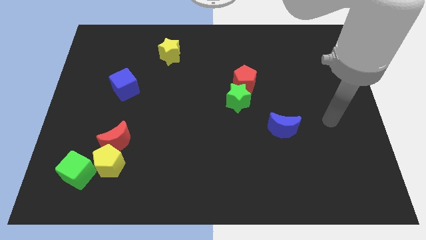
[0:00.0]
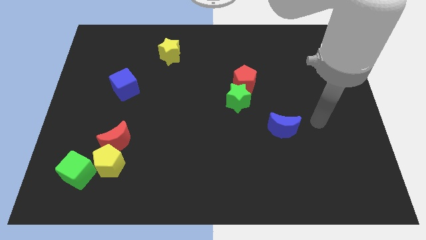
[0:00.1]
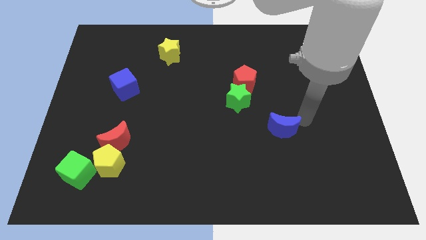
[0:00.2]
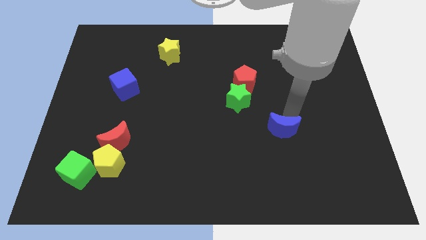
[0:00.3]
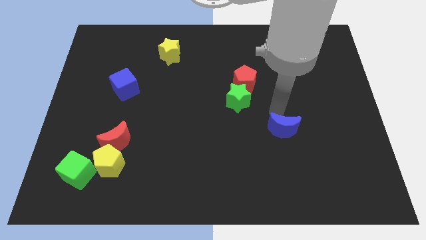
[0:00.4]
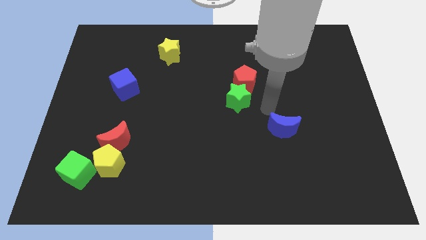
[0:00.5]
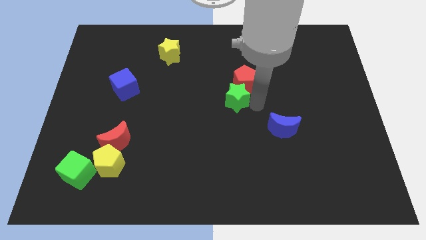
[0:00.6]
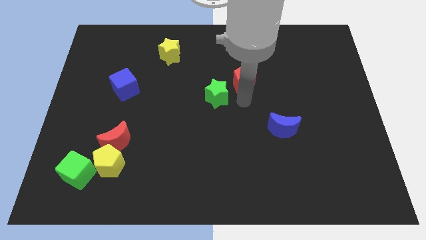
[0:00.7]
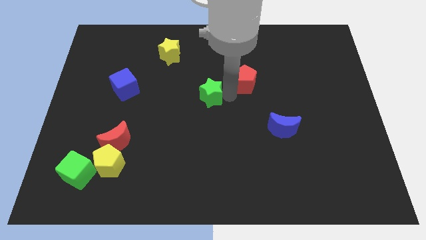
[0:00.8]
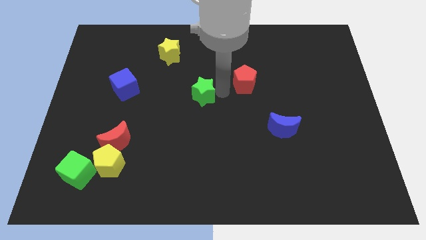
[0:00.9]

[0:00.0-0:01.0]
separate the red pentagon from the green star

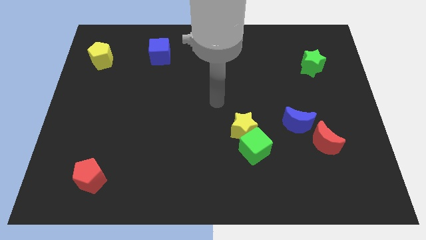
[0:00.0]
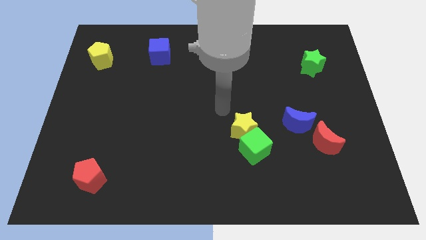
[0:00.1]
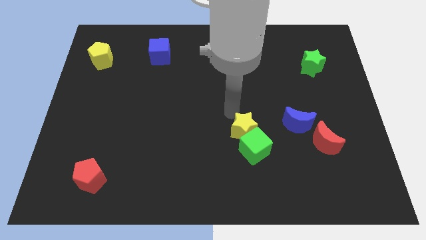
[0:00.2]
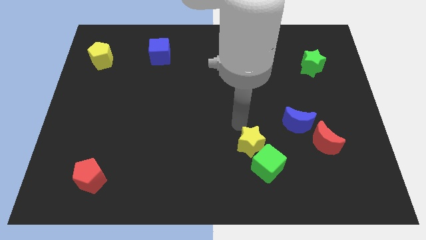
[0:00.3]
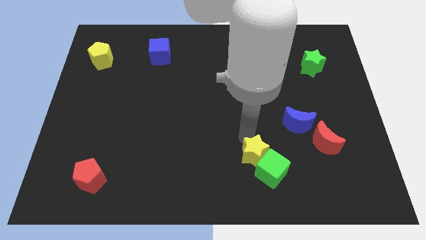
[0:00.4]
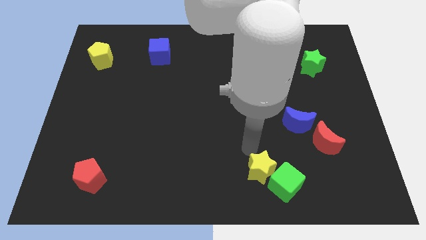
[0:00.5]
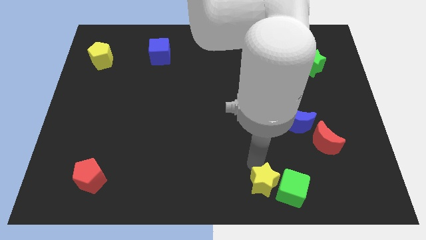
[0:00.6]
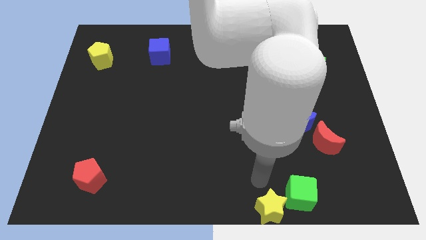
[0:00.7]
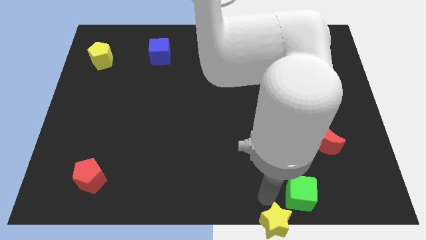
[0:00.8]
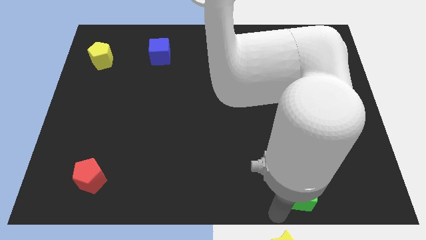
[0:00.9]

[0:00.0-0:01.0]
pull the green cube apart from the yellow star

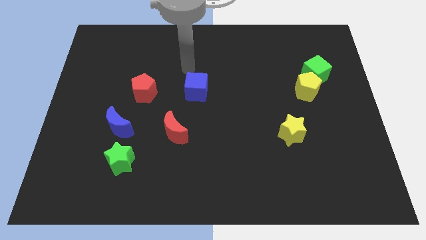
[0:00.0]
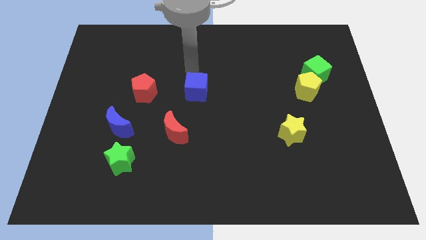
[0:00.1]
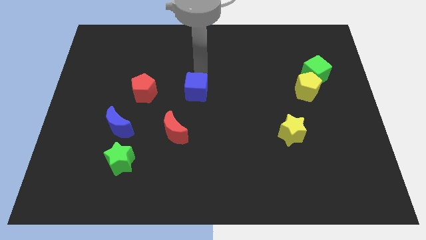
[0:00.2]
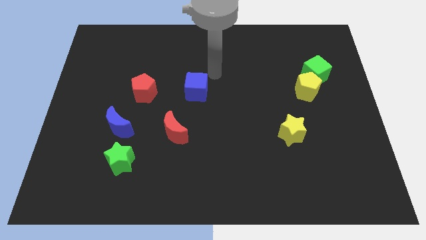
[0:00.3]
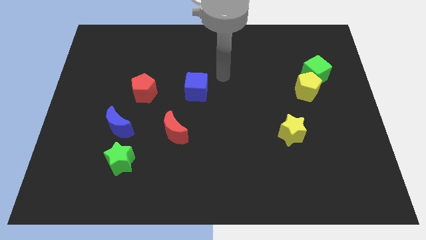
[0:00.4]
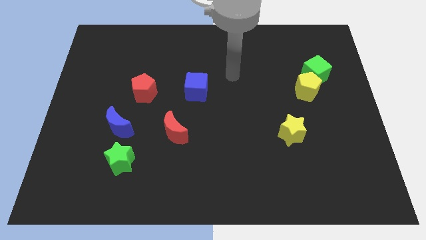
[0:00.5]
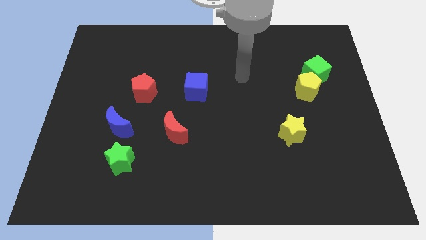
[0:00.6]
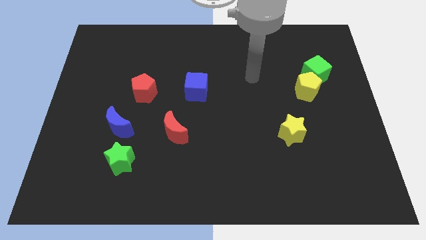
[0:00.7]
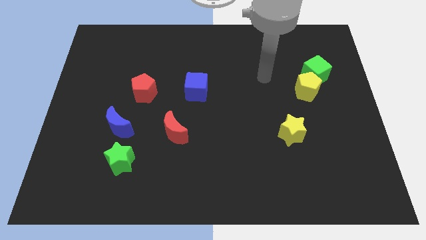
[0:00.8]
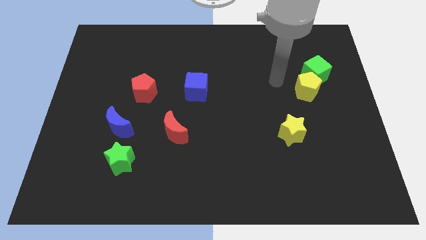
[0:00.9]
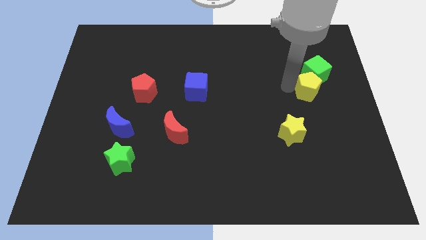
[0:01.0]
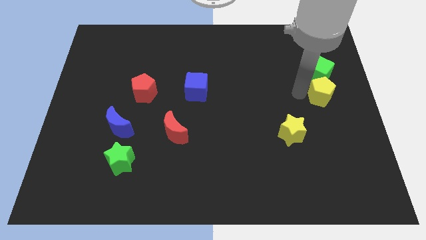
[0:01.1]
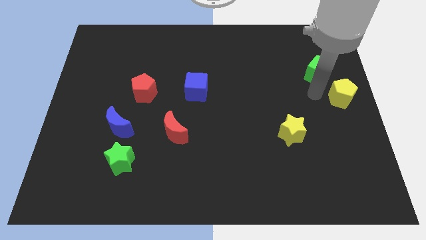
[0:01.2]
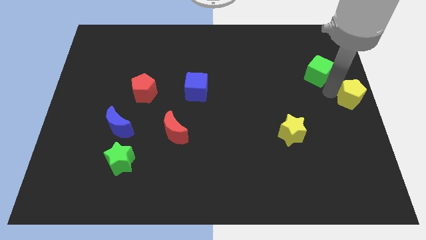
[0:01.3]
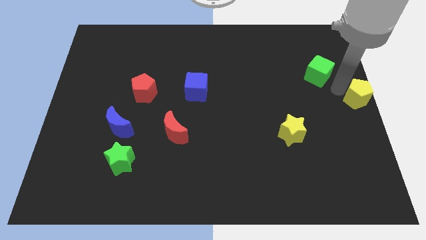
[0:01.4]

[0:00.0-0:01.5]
separate the green cube from the yellow pentagon

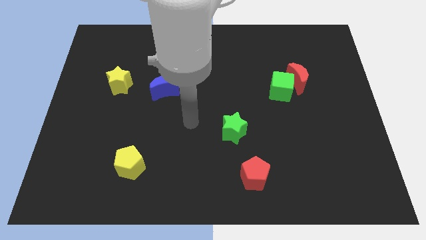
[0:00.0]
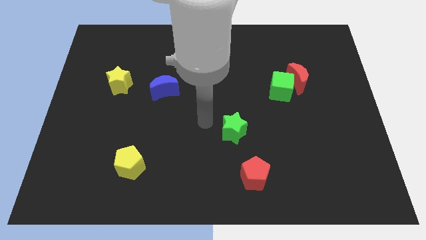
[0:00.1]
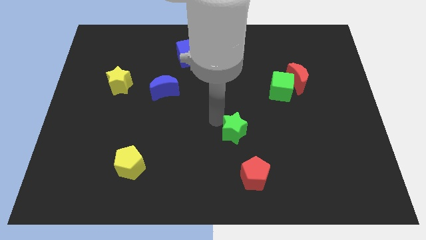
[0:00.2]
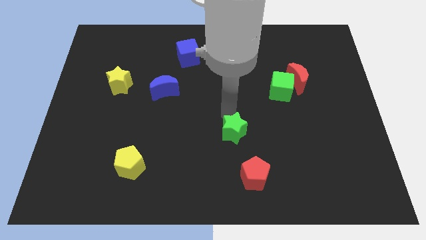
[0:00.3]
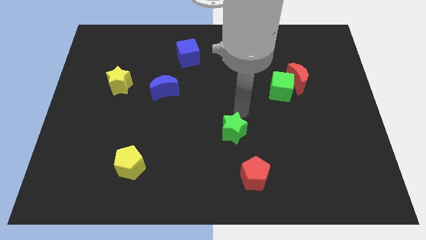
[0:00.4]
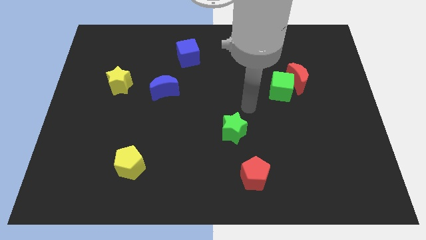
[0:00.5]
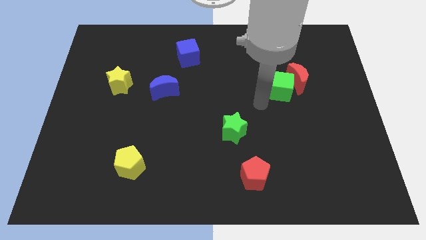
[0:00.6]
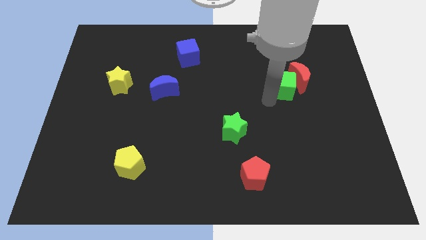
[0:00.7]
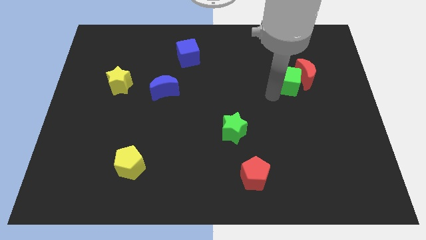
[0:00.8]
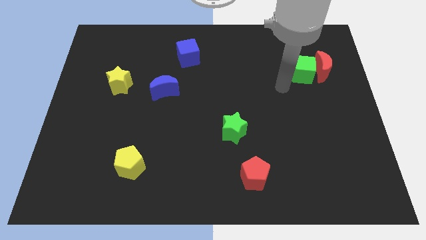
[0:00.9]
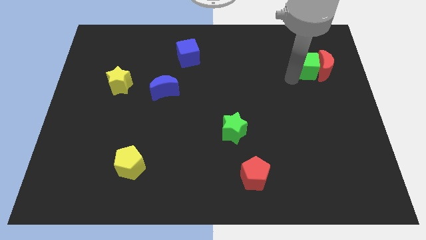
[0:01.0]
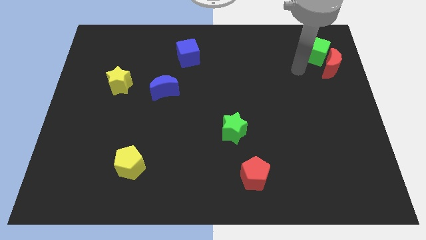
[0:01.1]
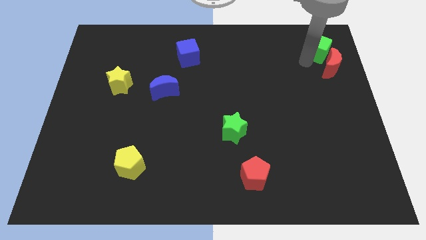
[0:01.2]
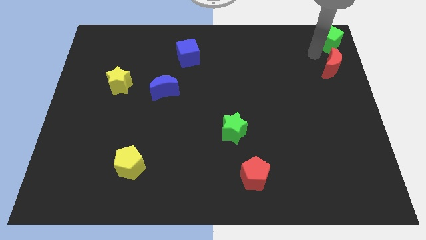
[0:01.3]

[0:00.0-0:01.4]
pull the red moon apart from the green cube

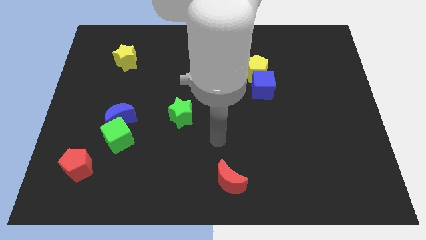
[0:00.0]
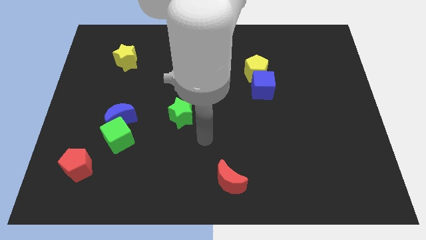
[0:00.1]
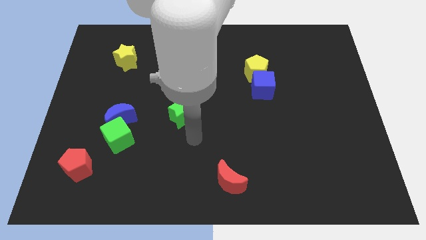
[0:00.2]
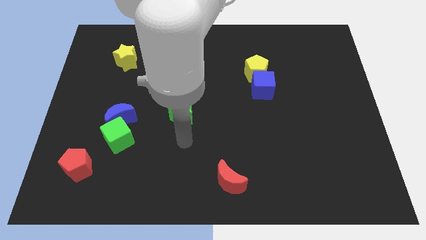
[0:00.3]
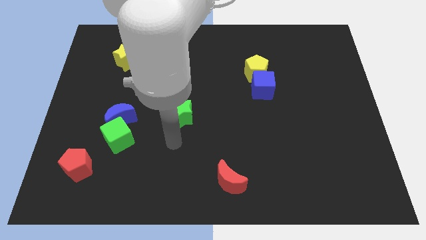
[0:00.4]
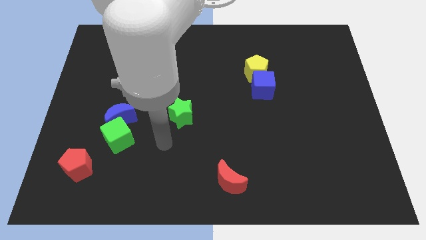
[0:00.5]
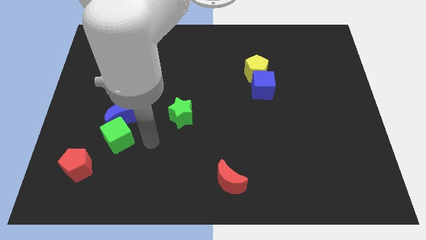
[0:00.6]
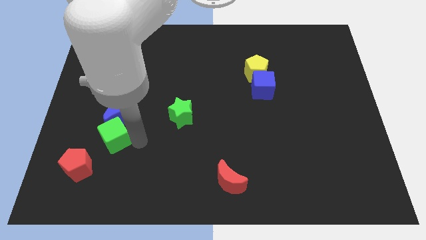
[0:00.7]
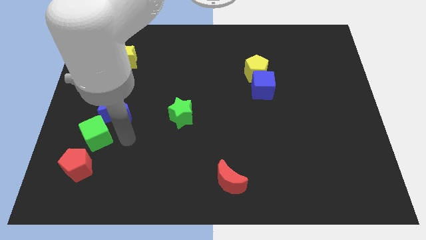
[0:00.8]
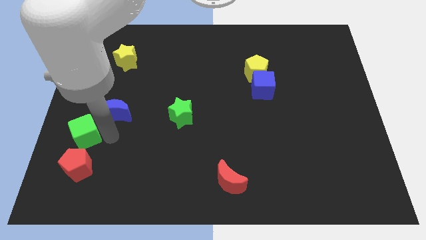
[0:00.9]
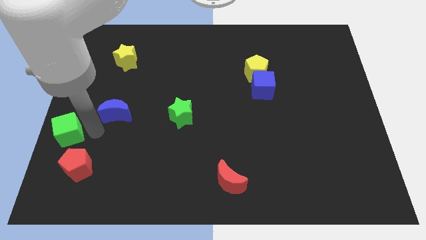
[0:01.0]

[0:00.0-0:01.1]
move the blue moon away from the green cube

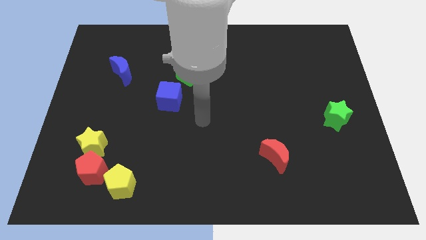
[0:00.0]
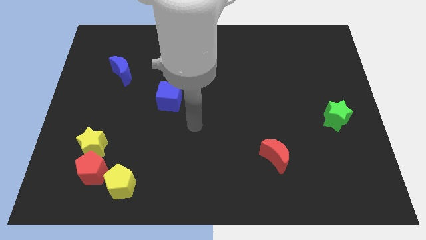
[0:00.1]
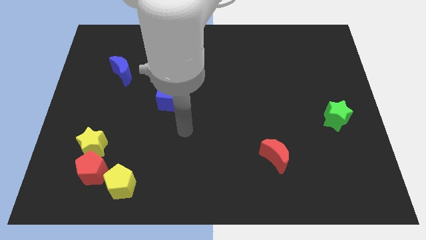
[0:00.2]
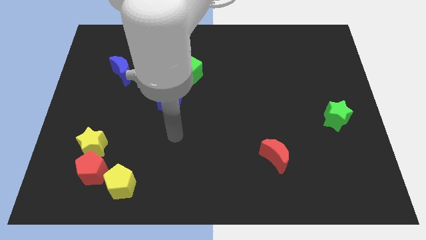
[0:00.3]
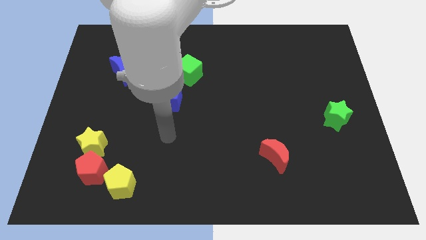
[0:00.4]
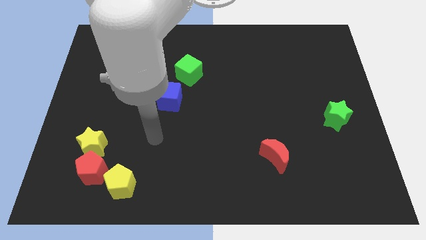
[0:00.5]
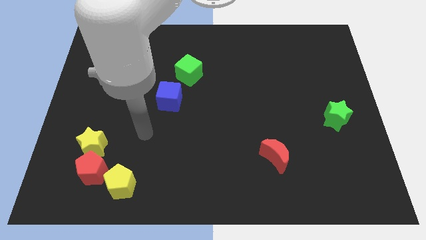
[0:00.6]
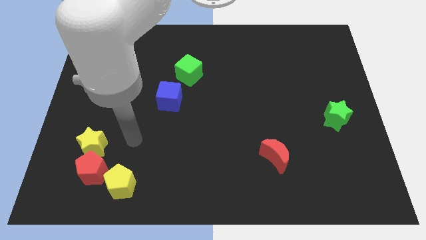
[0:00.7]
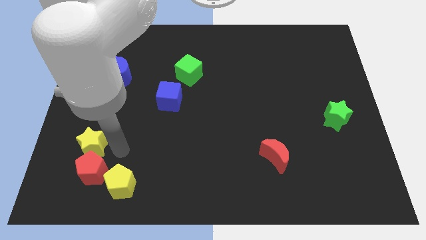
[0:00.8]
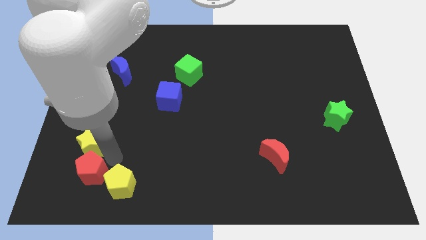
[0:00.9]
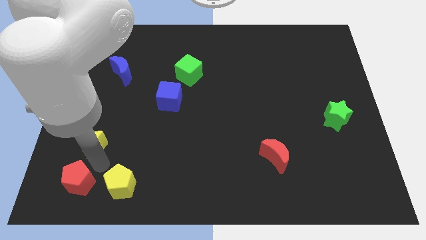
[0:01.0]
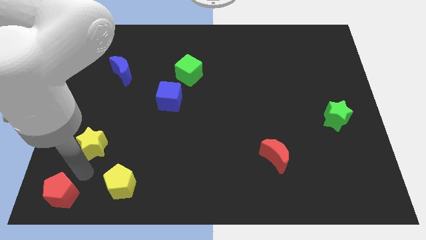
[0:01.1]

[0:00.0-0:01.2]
separate the yellow star from the red pentagon

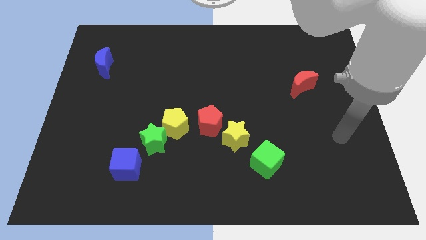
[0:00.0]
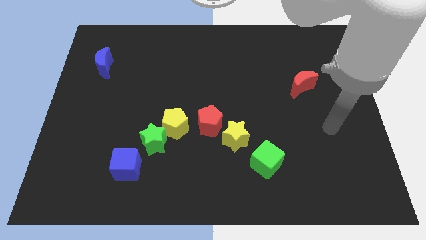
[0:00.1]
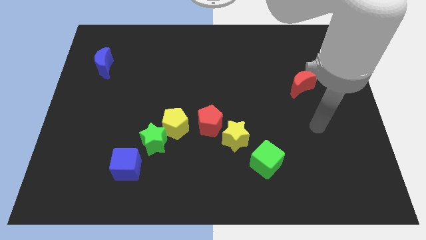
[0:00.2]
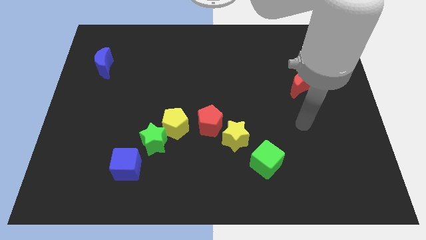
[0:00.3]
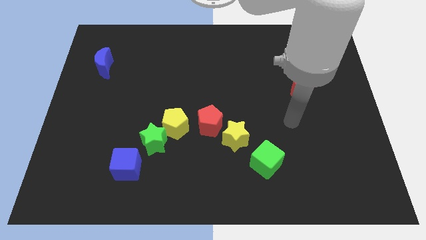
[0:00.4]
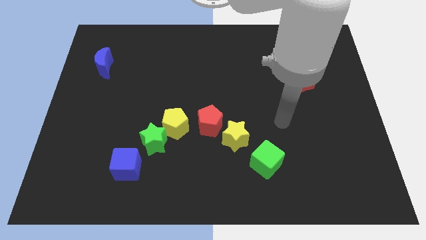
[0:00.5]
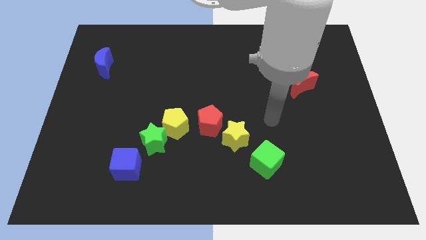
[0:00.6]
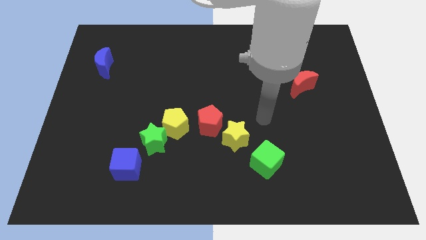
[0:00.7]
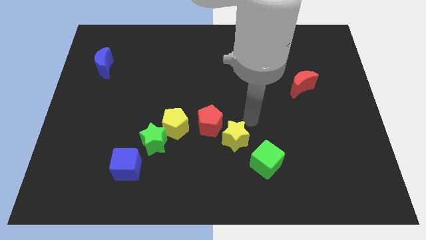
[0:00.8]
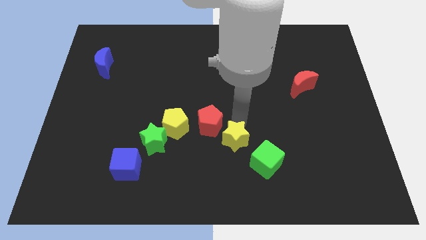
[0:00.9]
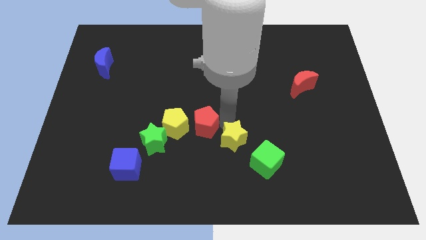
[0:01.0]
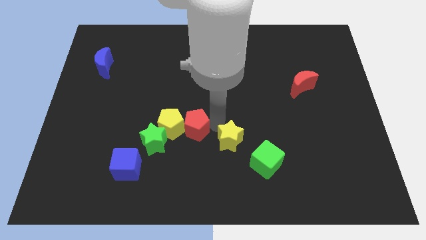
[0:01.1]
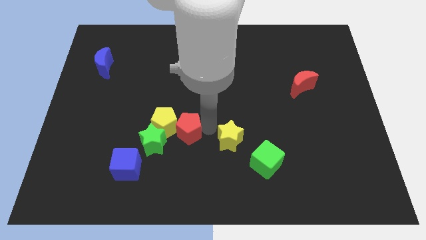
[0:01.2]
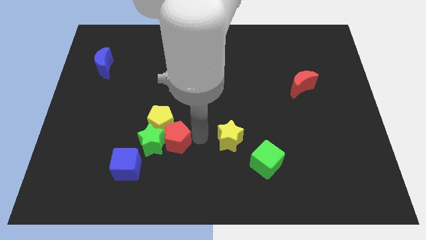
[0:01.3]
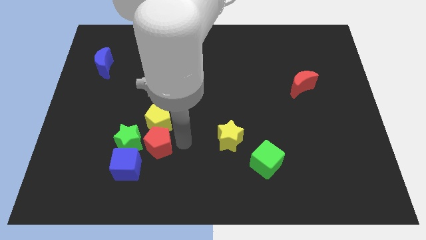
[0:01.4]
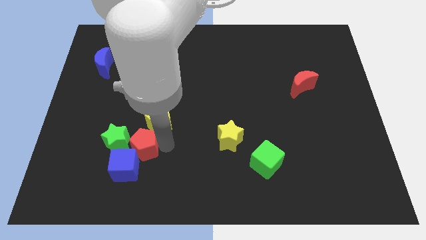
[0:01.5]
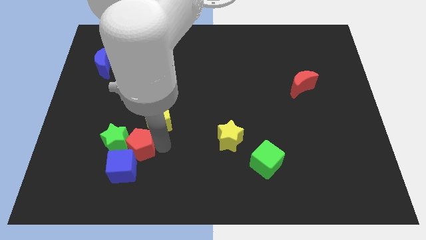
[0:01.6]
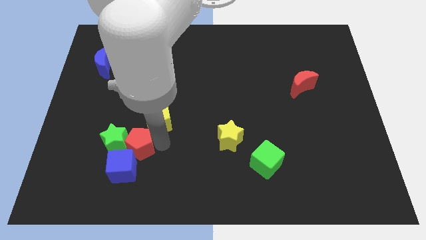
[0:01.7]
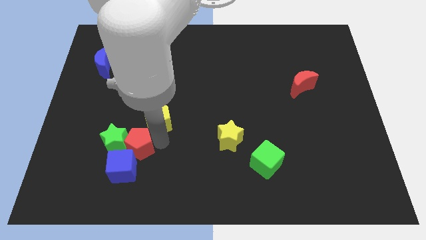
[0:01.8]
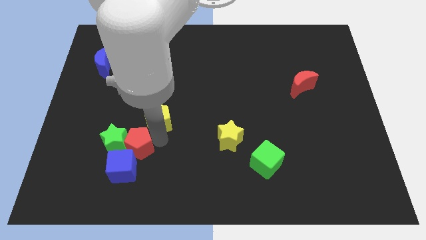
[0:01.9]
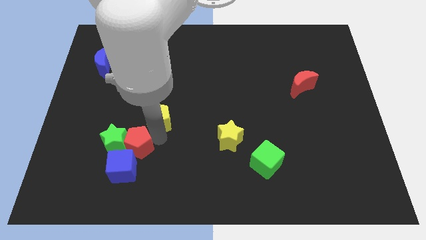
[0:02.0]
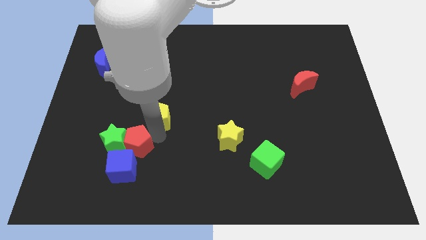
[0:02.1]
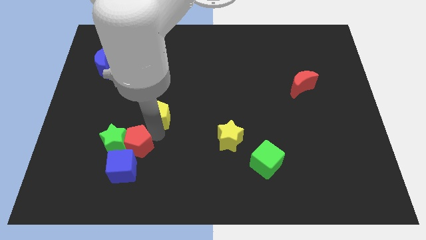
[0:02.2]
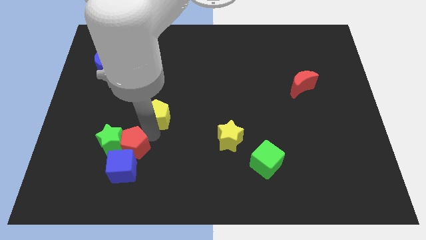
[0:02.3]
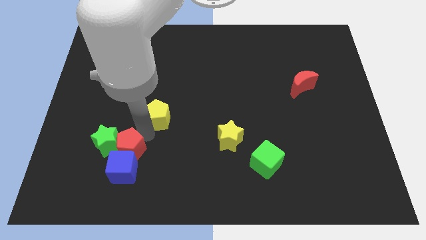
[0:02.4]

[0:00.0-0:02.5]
separate the yellow pentagon from the green star and red pentagon
